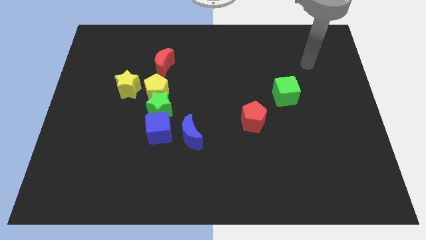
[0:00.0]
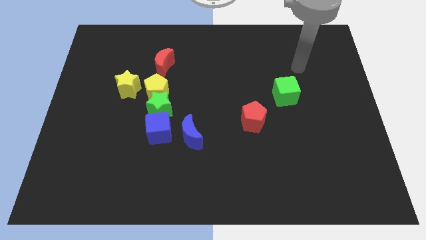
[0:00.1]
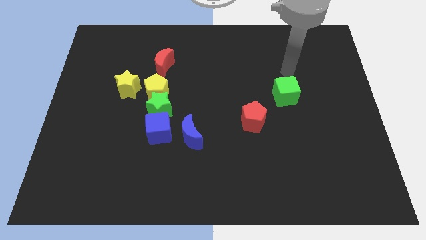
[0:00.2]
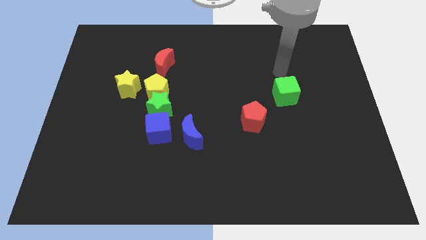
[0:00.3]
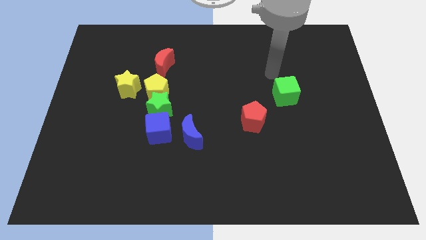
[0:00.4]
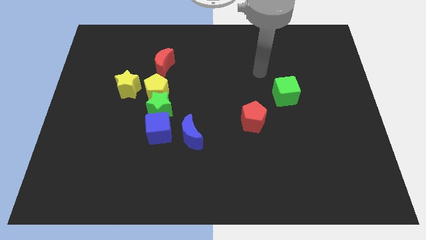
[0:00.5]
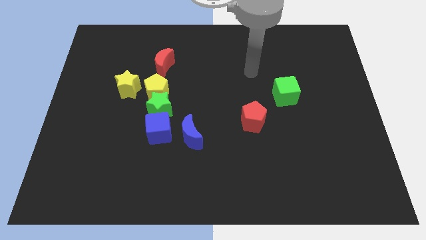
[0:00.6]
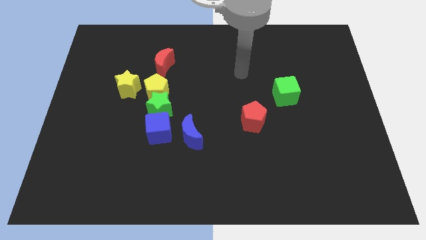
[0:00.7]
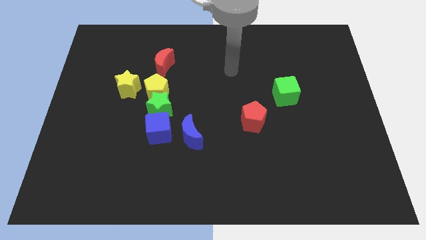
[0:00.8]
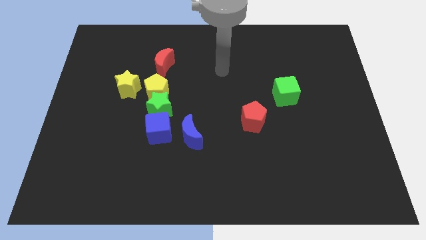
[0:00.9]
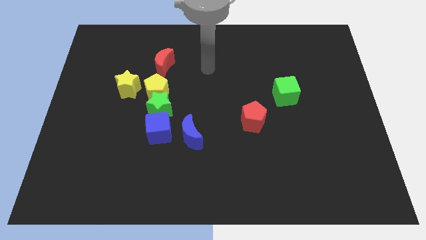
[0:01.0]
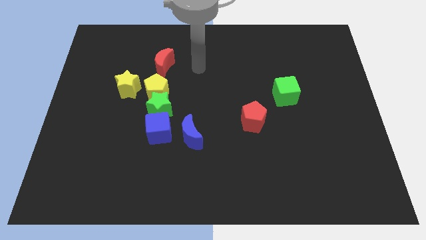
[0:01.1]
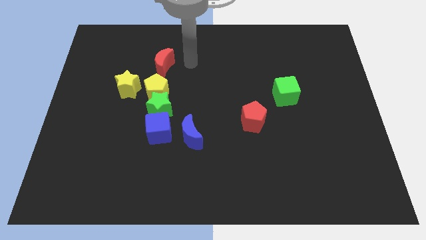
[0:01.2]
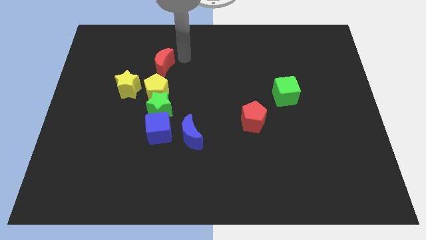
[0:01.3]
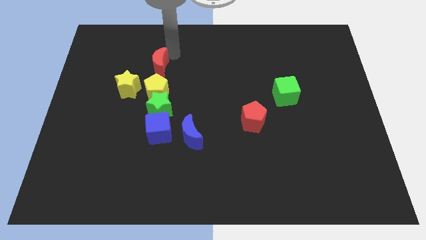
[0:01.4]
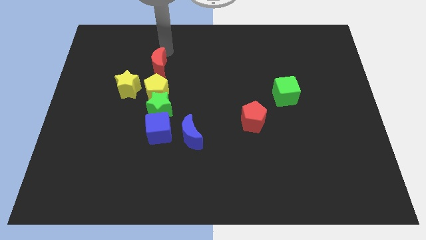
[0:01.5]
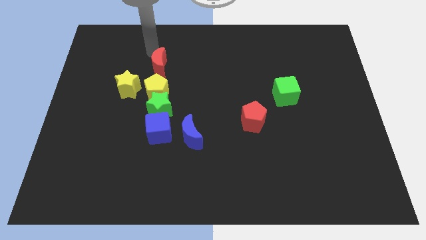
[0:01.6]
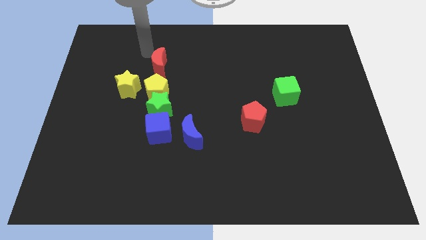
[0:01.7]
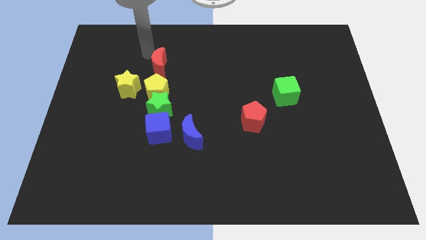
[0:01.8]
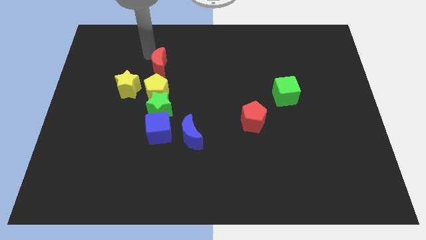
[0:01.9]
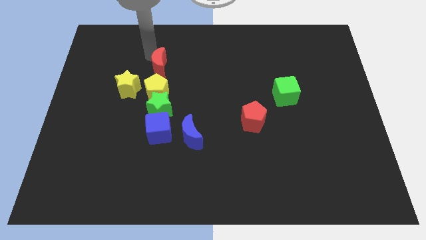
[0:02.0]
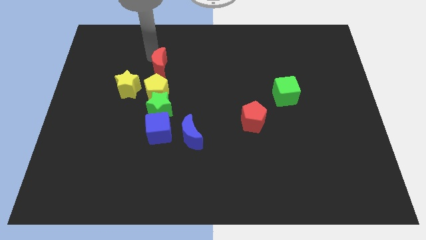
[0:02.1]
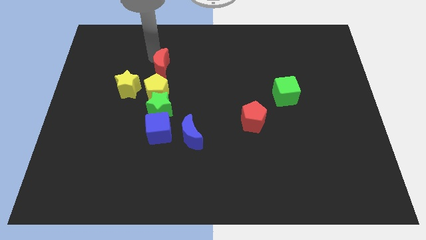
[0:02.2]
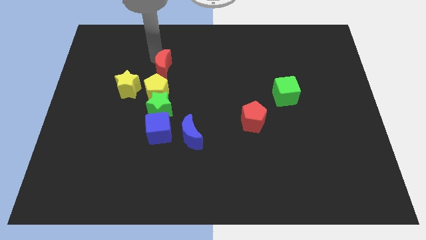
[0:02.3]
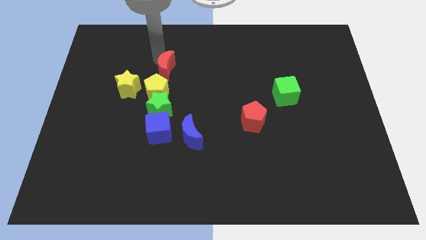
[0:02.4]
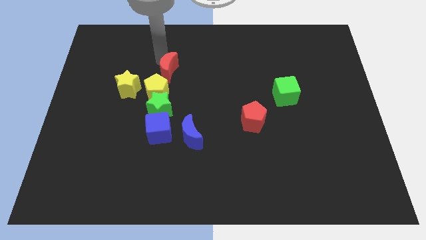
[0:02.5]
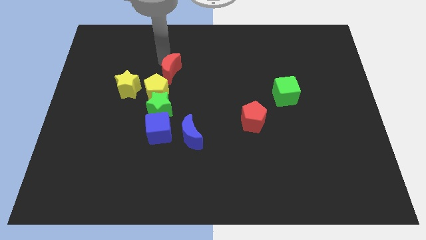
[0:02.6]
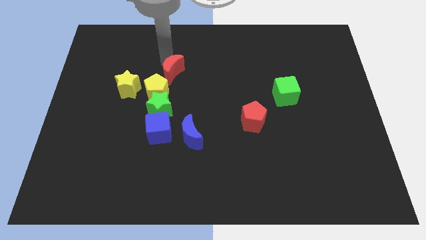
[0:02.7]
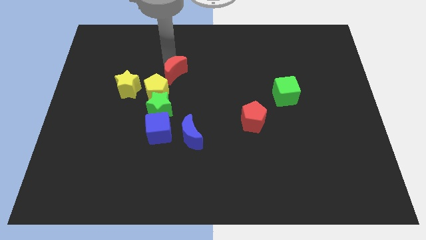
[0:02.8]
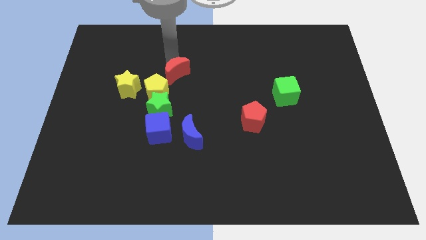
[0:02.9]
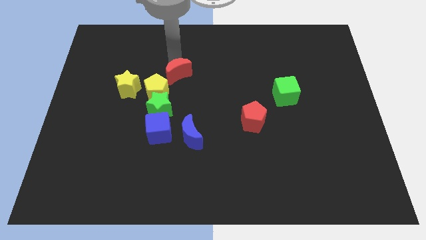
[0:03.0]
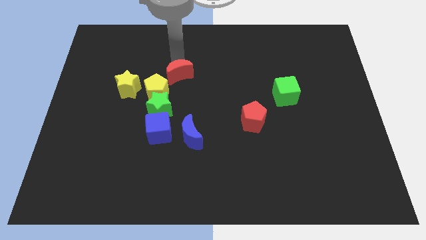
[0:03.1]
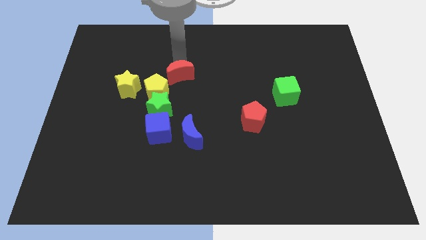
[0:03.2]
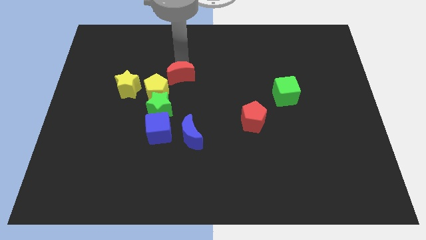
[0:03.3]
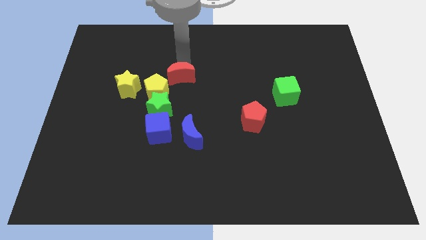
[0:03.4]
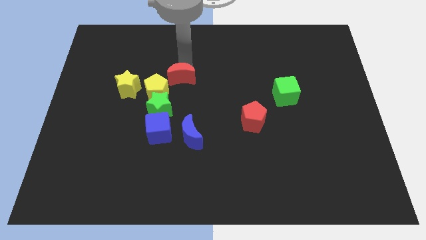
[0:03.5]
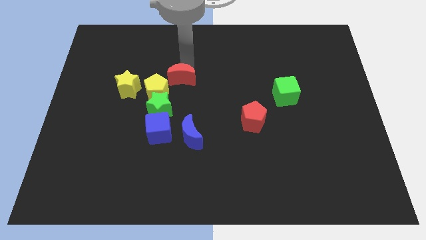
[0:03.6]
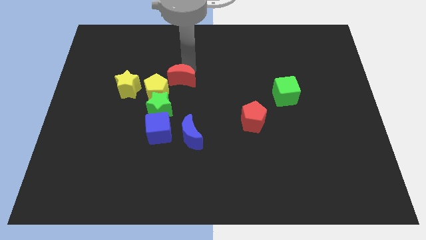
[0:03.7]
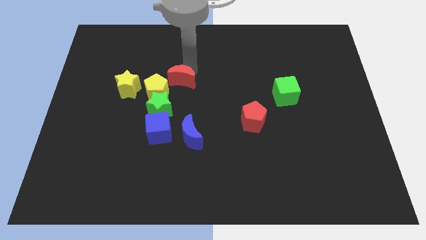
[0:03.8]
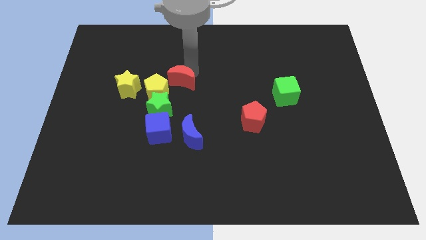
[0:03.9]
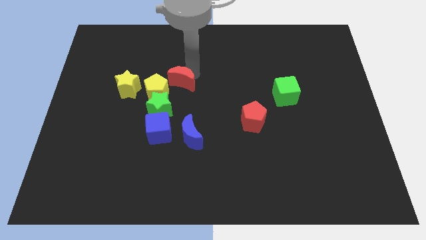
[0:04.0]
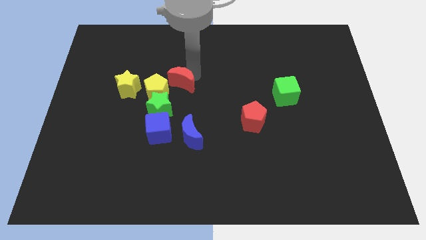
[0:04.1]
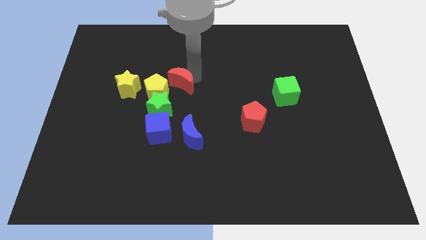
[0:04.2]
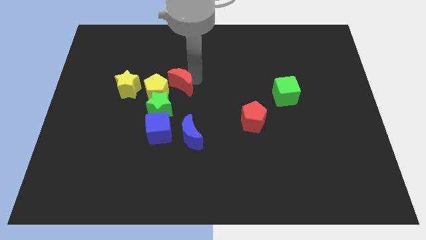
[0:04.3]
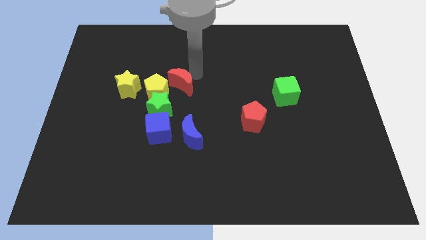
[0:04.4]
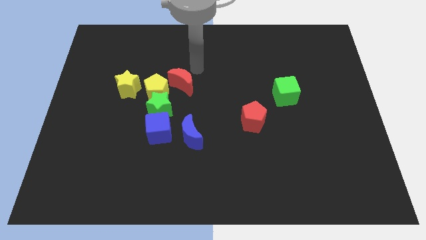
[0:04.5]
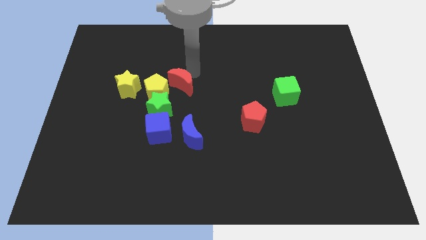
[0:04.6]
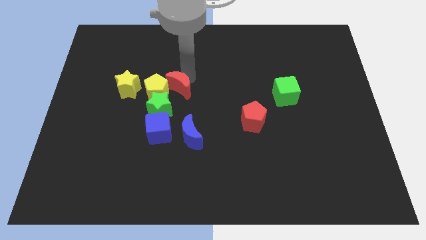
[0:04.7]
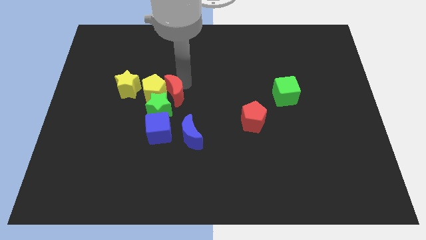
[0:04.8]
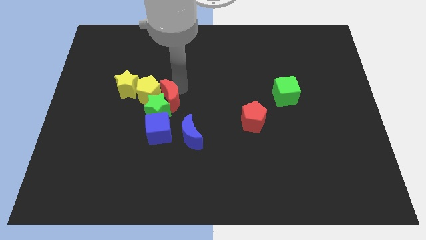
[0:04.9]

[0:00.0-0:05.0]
push the red moon towards the green star

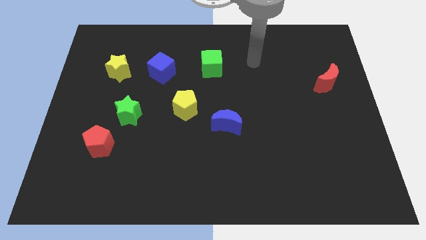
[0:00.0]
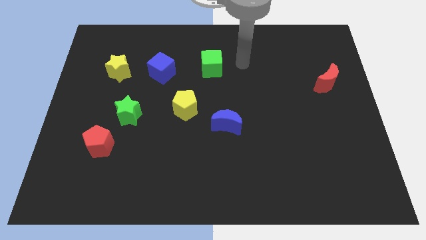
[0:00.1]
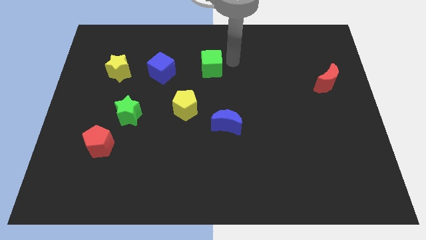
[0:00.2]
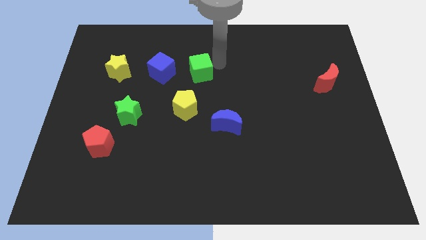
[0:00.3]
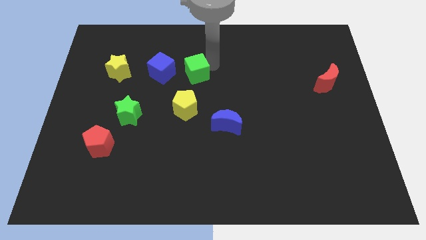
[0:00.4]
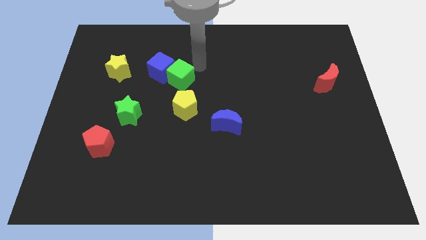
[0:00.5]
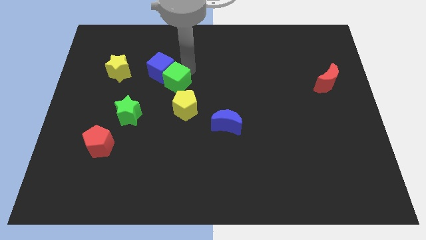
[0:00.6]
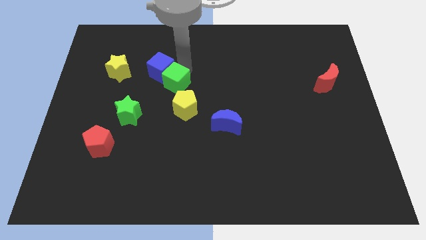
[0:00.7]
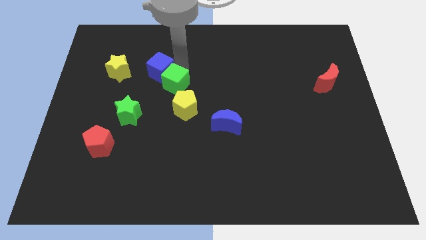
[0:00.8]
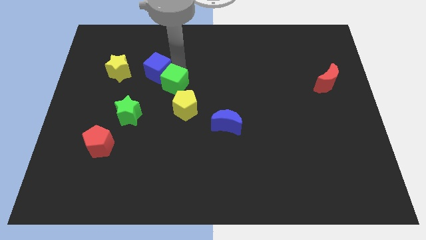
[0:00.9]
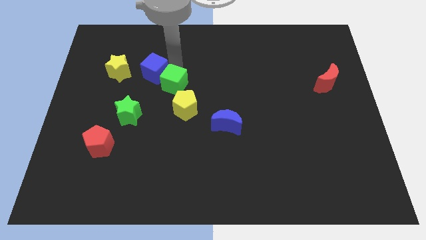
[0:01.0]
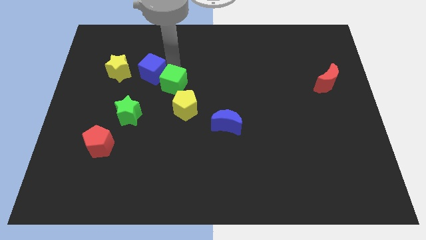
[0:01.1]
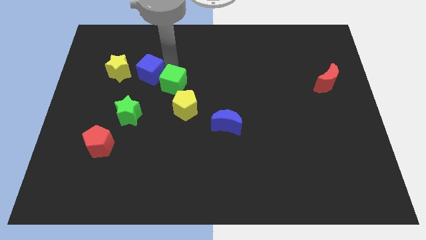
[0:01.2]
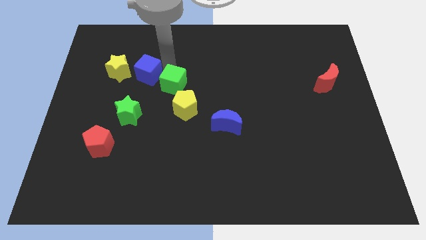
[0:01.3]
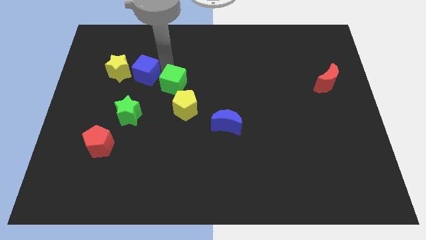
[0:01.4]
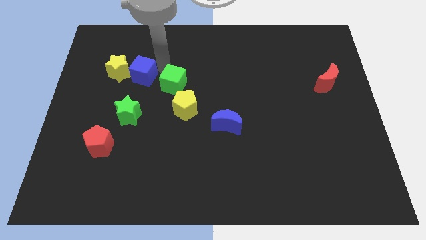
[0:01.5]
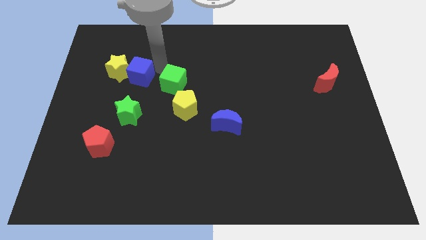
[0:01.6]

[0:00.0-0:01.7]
slide the blue cube to the yellow star

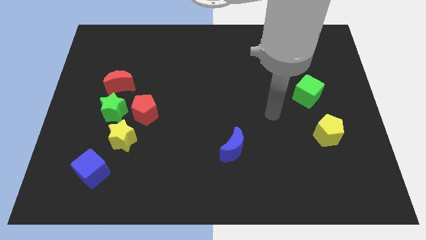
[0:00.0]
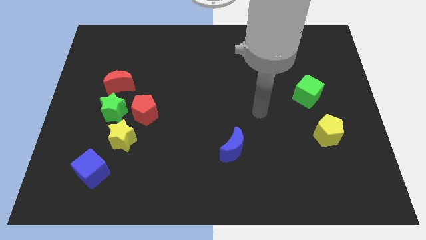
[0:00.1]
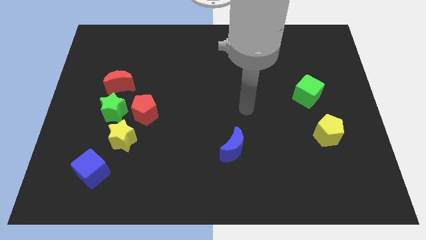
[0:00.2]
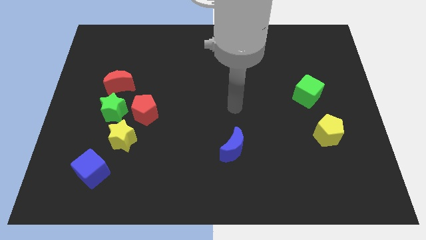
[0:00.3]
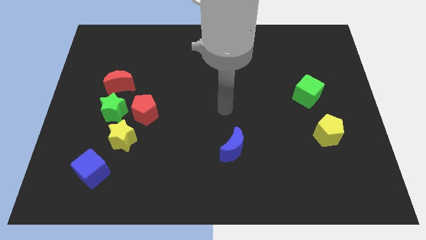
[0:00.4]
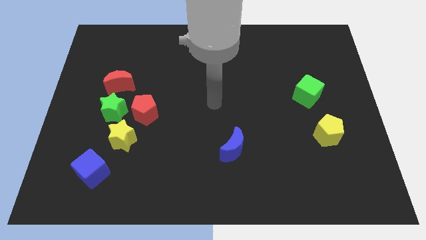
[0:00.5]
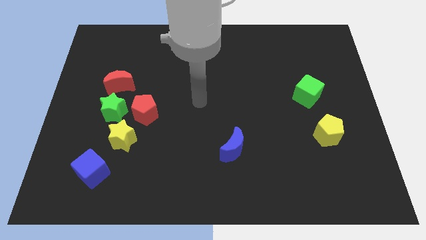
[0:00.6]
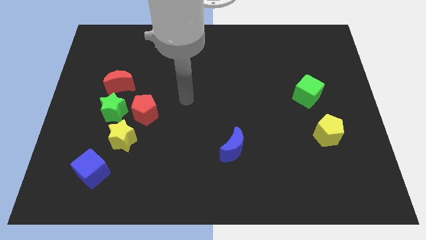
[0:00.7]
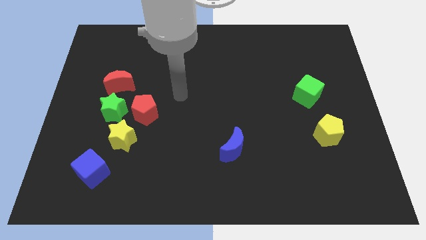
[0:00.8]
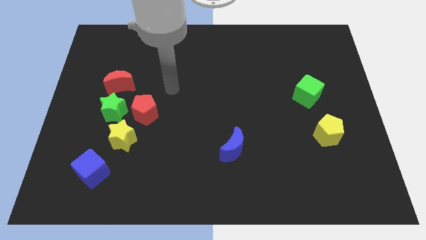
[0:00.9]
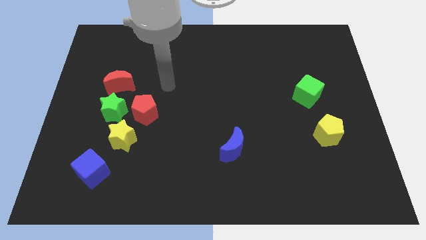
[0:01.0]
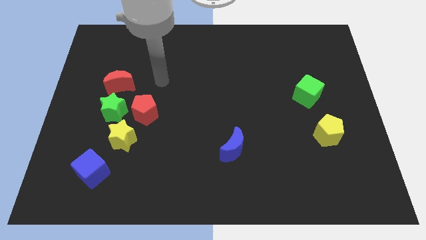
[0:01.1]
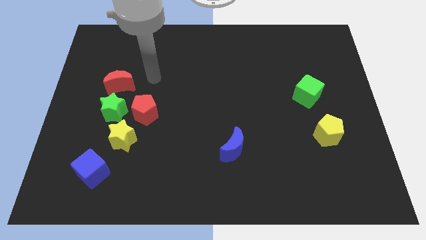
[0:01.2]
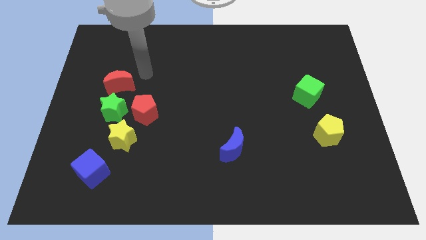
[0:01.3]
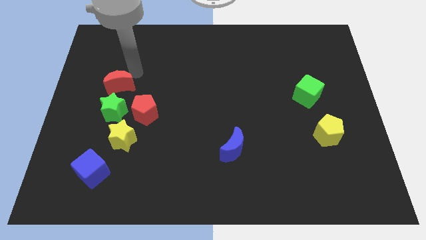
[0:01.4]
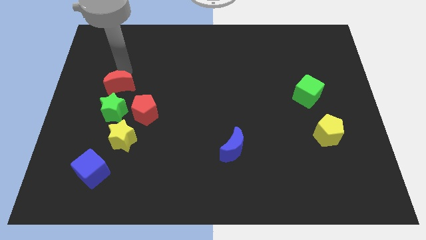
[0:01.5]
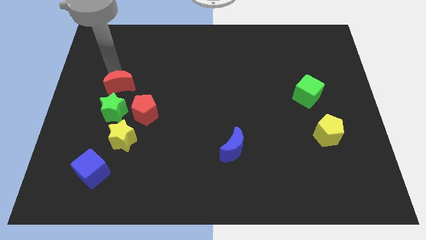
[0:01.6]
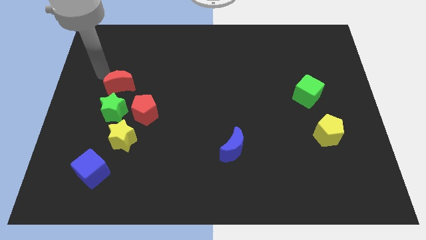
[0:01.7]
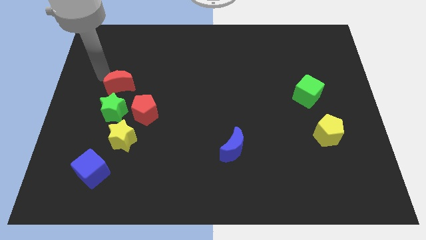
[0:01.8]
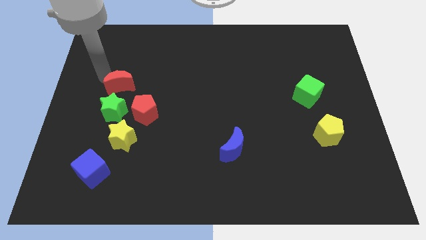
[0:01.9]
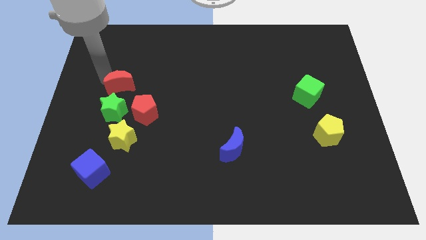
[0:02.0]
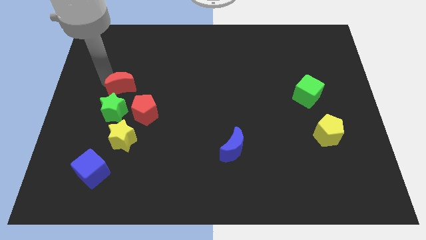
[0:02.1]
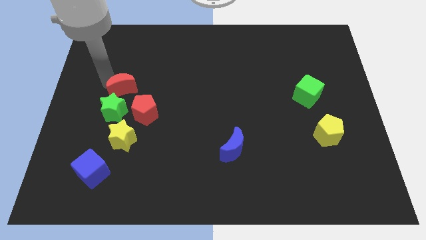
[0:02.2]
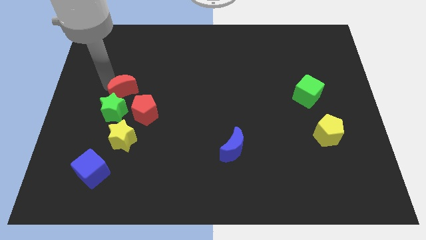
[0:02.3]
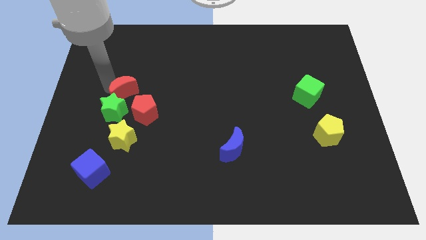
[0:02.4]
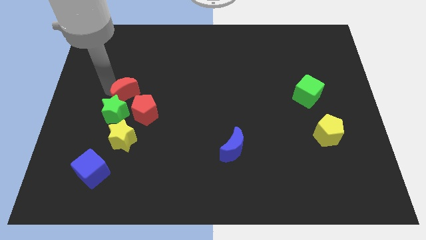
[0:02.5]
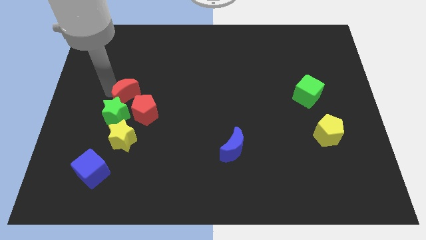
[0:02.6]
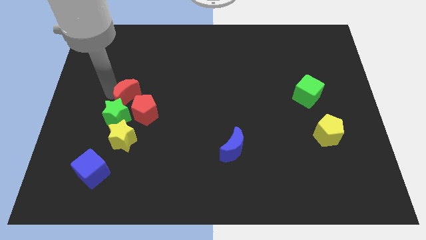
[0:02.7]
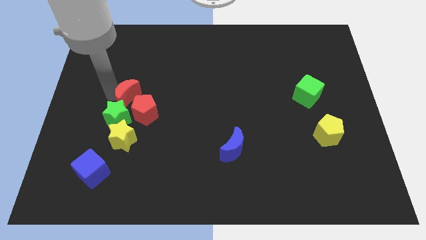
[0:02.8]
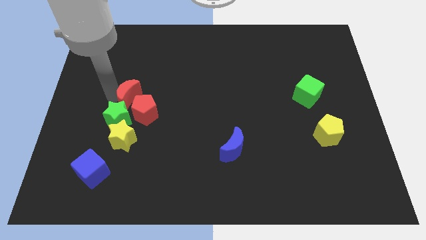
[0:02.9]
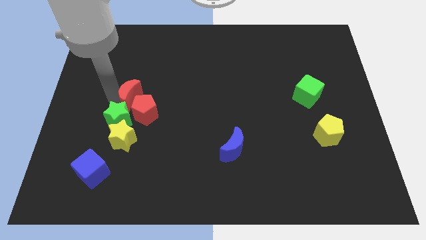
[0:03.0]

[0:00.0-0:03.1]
move the red moon next to the red pentagon
